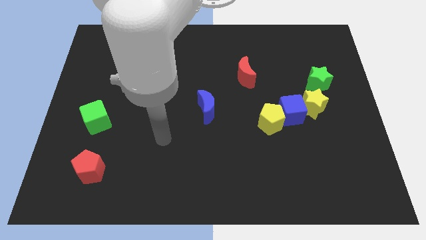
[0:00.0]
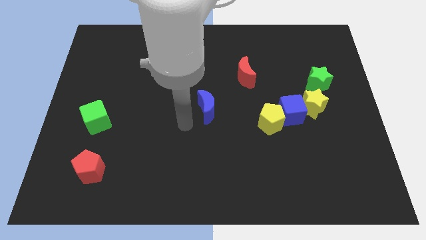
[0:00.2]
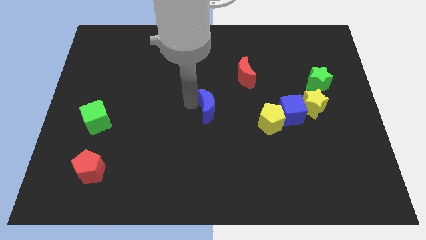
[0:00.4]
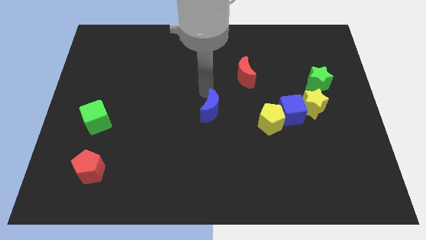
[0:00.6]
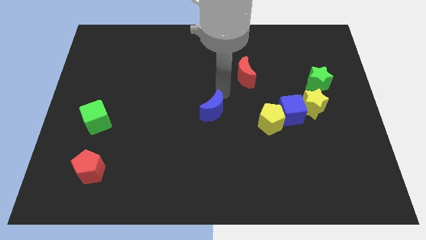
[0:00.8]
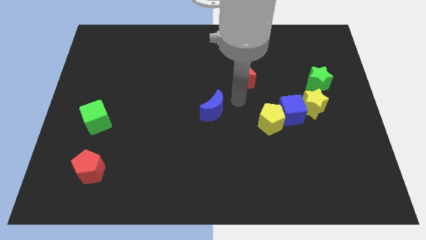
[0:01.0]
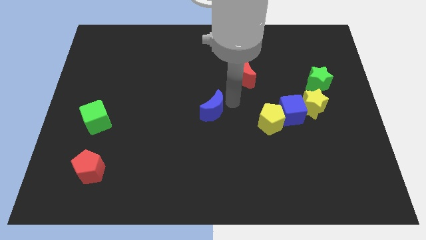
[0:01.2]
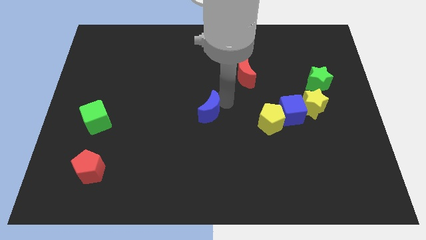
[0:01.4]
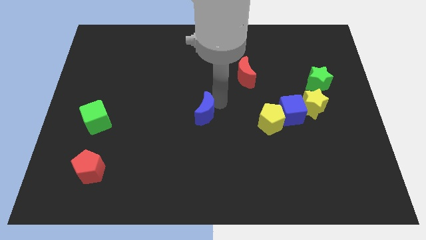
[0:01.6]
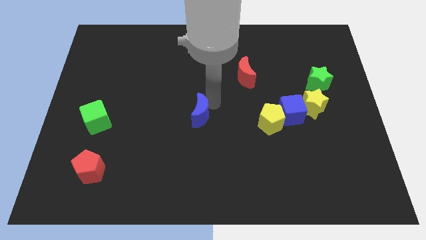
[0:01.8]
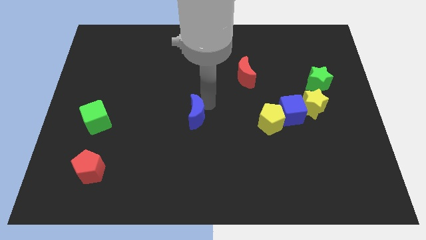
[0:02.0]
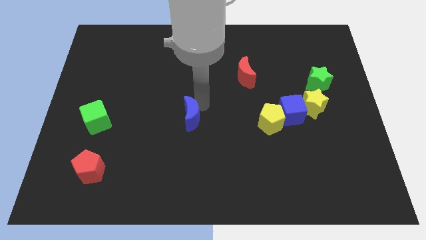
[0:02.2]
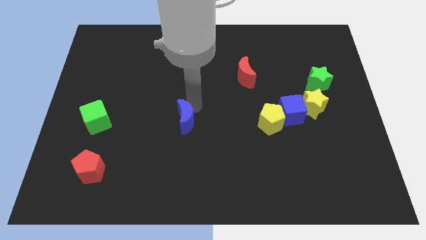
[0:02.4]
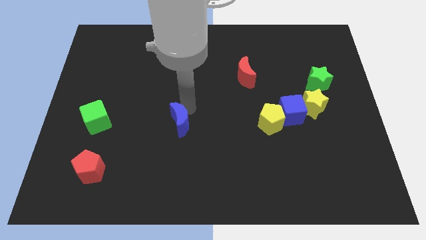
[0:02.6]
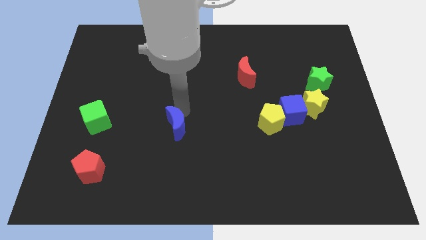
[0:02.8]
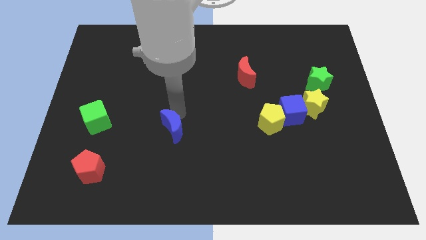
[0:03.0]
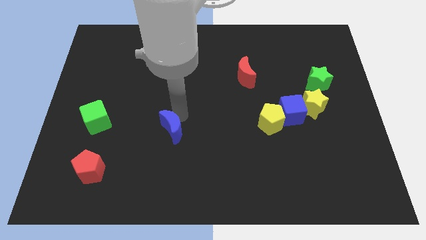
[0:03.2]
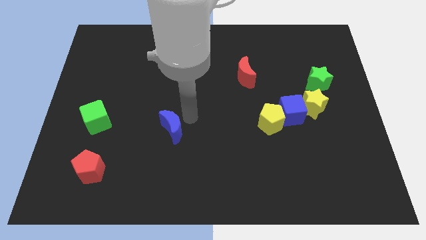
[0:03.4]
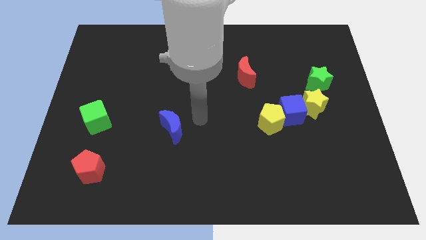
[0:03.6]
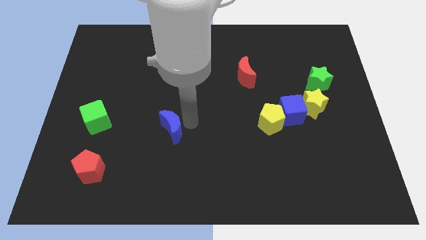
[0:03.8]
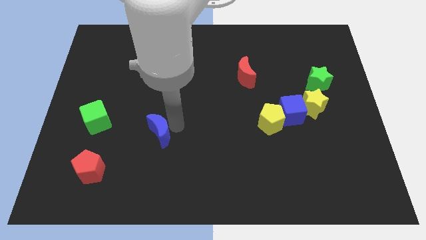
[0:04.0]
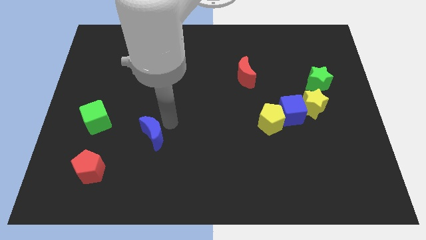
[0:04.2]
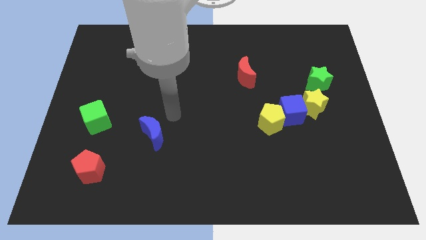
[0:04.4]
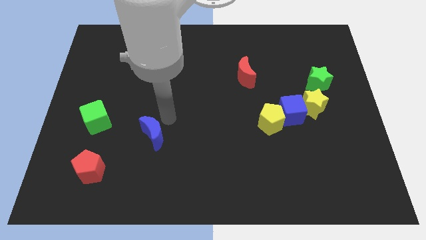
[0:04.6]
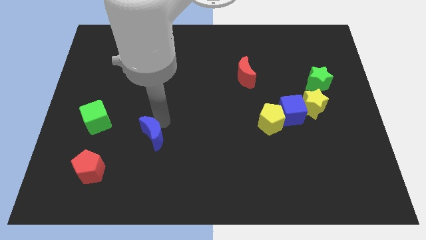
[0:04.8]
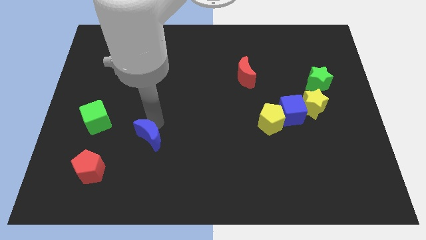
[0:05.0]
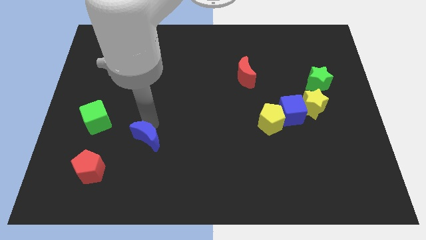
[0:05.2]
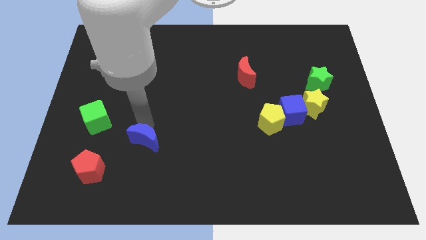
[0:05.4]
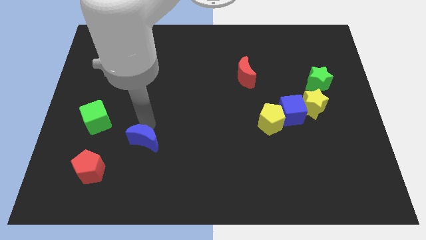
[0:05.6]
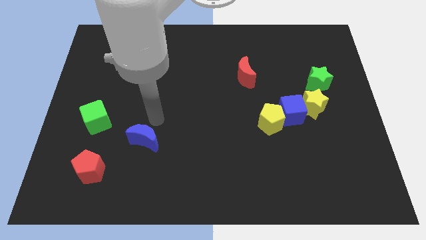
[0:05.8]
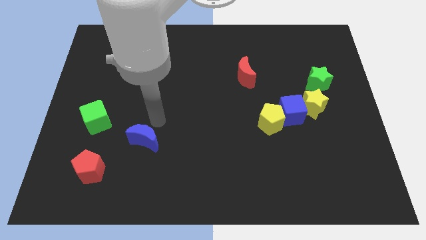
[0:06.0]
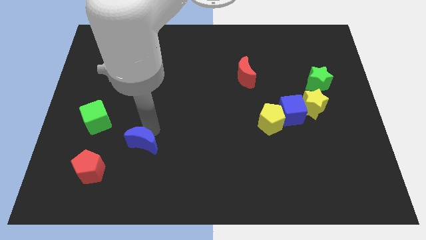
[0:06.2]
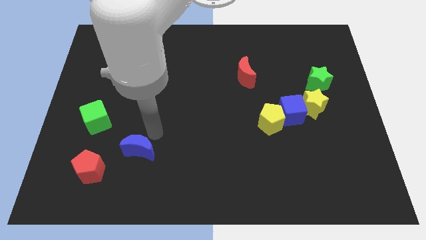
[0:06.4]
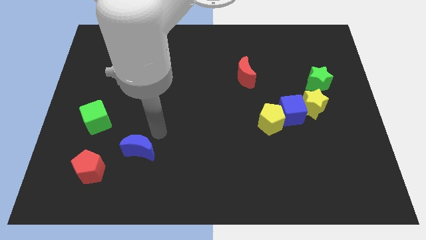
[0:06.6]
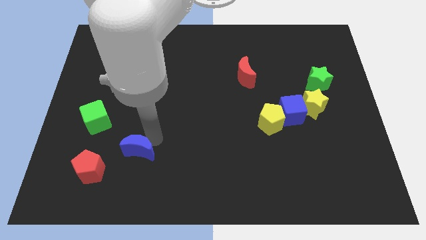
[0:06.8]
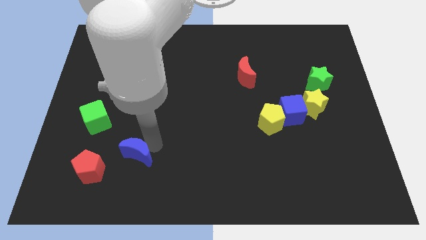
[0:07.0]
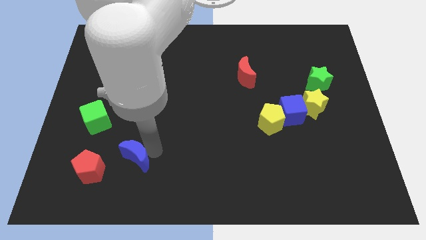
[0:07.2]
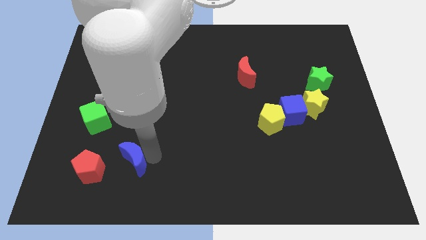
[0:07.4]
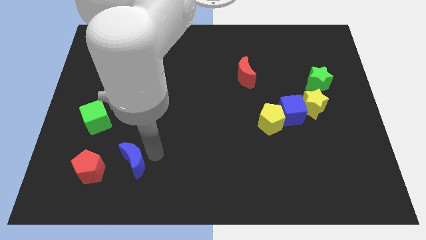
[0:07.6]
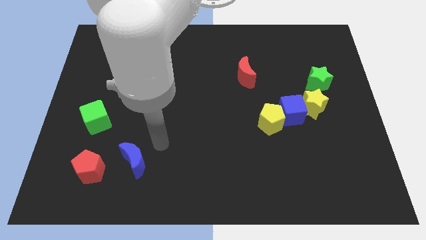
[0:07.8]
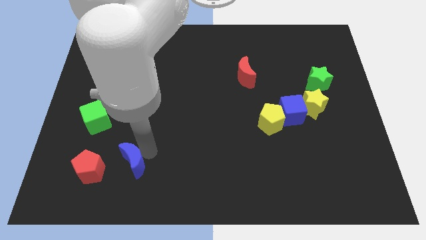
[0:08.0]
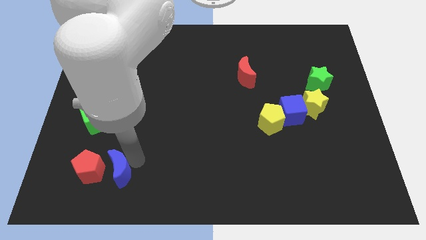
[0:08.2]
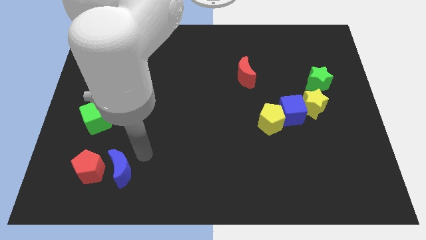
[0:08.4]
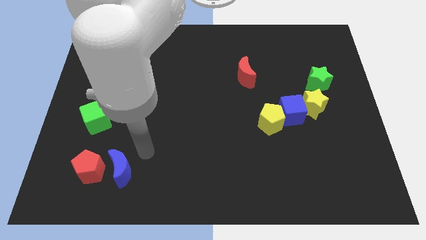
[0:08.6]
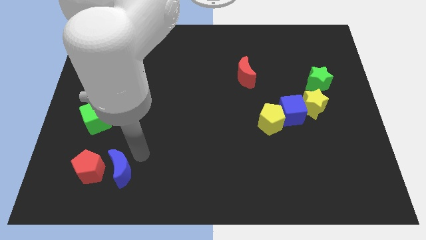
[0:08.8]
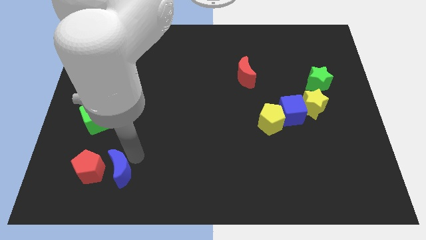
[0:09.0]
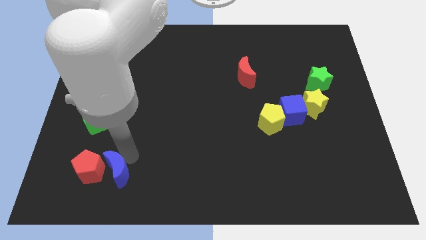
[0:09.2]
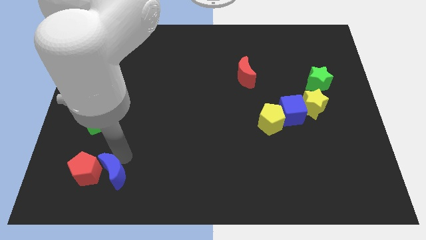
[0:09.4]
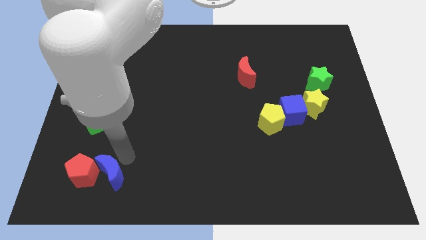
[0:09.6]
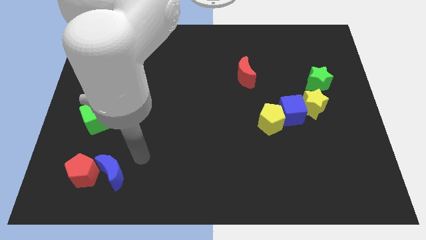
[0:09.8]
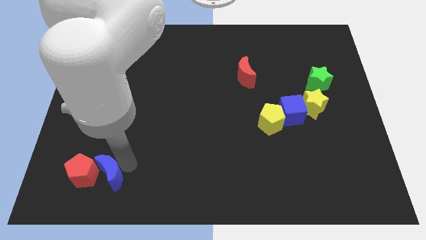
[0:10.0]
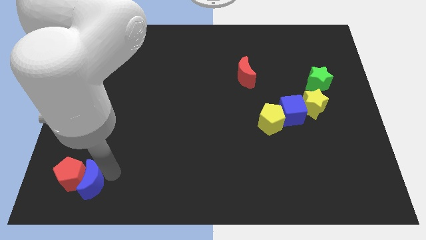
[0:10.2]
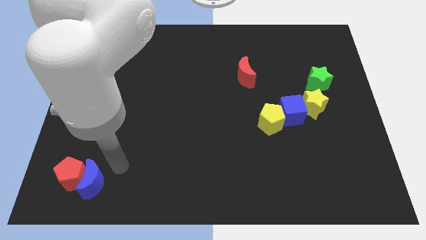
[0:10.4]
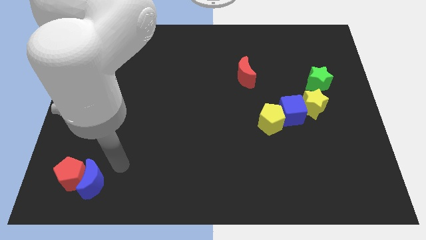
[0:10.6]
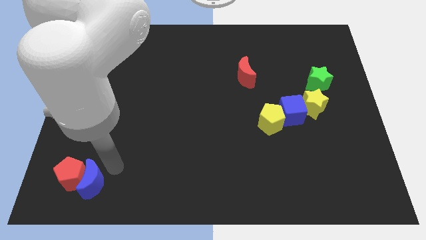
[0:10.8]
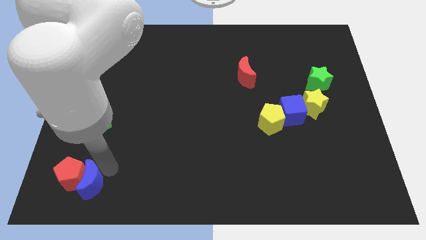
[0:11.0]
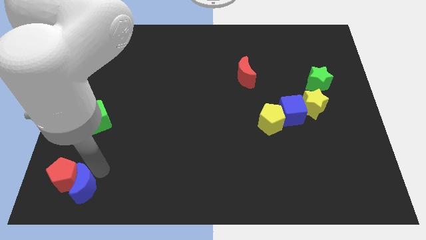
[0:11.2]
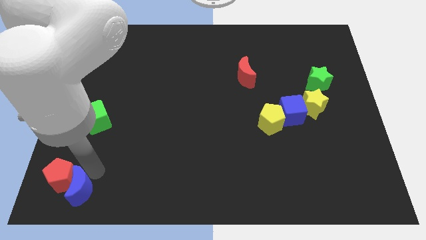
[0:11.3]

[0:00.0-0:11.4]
push the blue moon to the bottom left

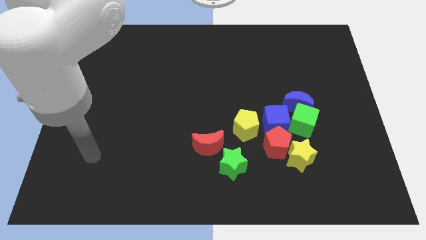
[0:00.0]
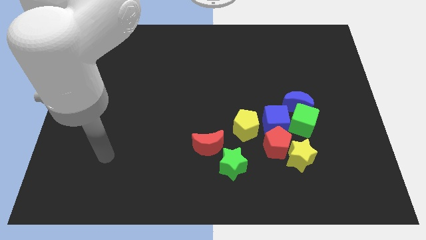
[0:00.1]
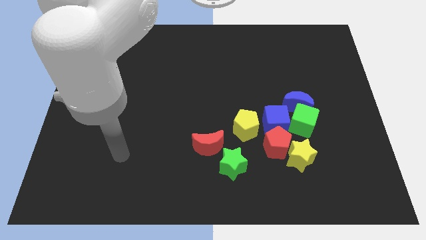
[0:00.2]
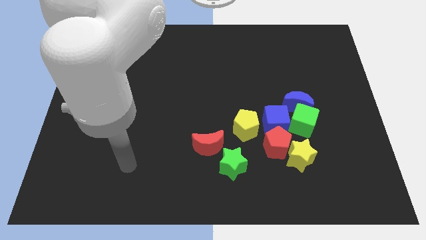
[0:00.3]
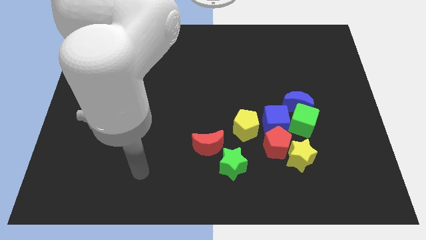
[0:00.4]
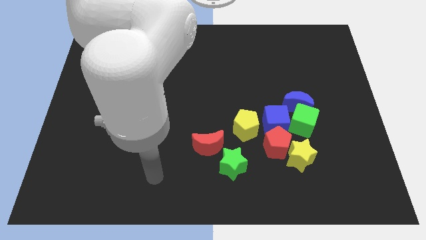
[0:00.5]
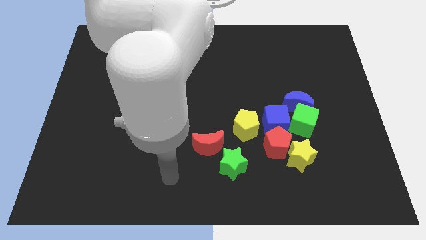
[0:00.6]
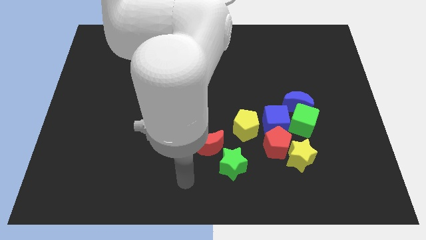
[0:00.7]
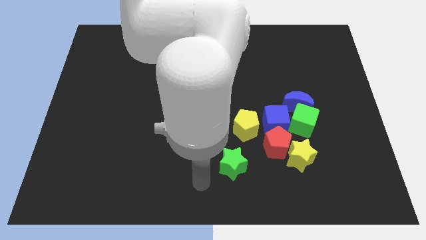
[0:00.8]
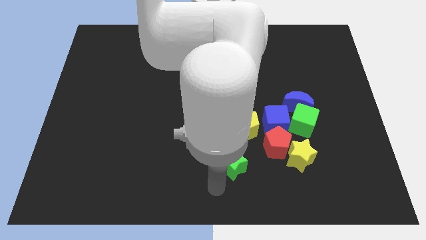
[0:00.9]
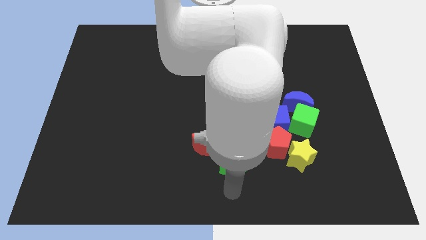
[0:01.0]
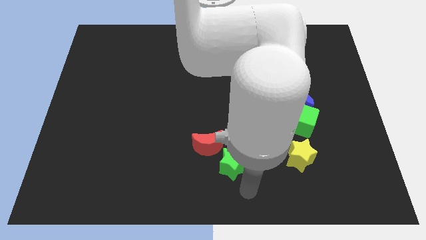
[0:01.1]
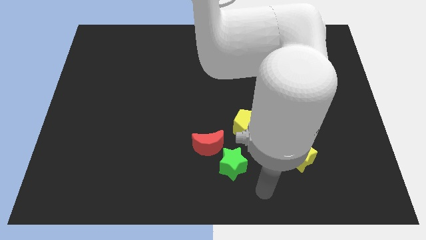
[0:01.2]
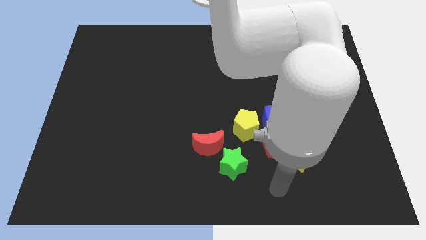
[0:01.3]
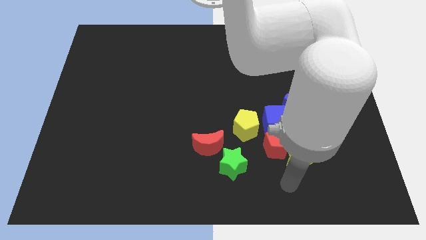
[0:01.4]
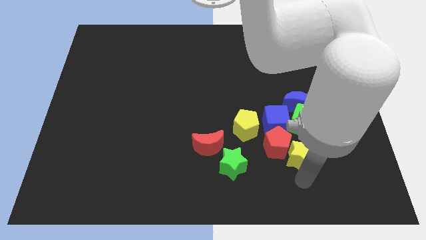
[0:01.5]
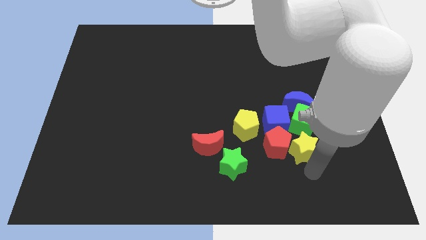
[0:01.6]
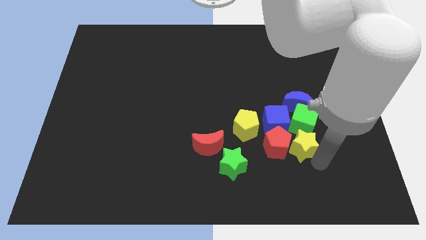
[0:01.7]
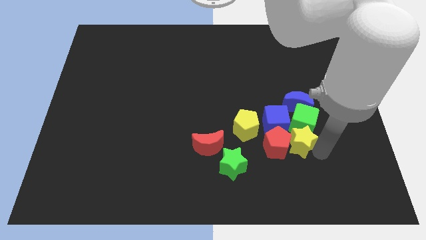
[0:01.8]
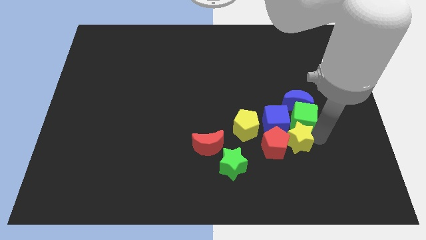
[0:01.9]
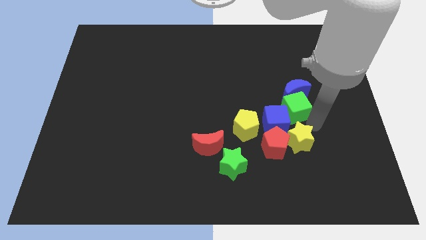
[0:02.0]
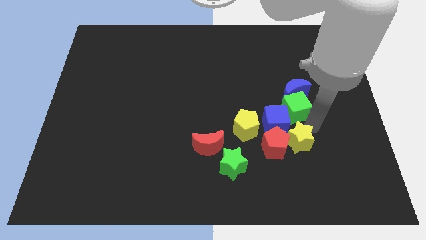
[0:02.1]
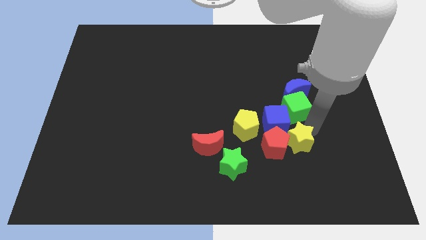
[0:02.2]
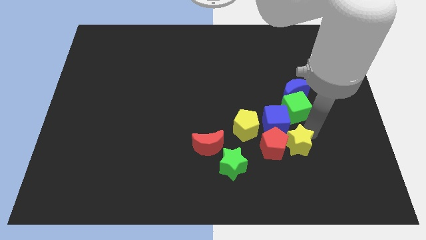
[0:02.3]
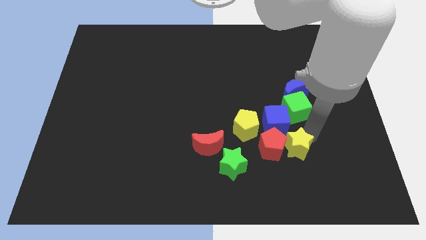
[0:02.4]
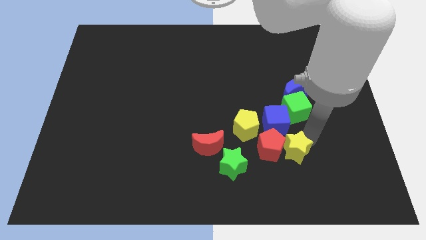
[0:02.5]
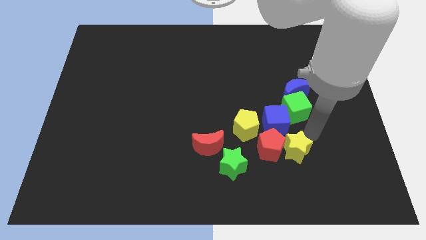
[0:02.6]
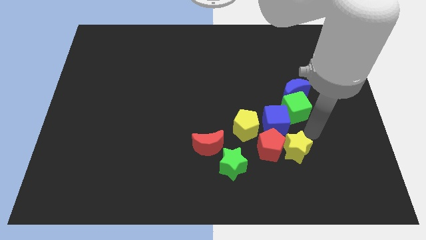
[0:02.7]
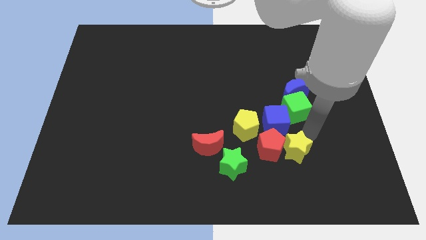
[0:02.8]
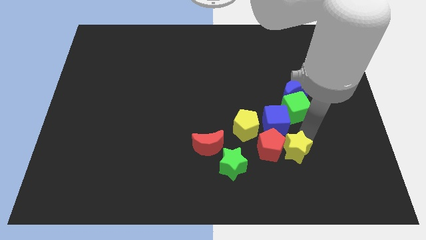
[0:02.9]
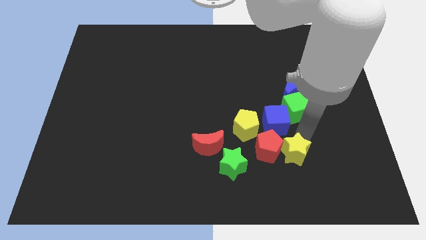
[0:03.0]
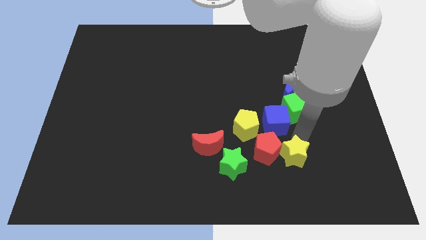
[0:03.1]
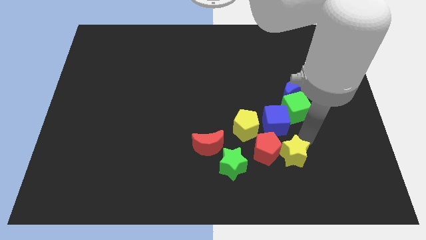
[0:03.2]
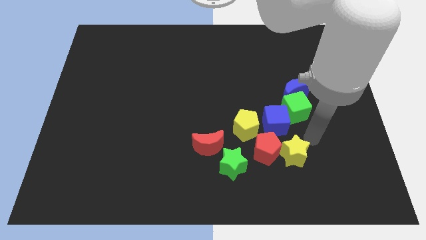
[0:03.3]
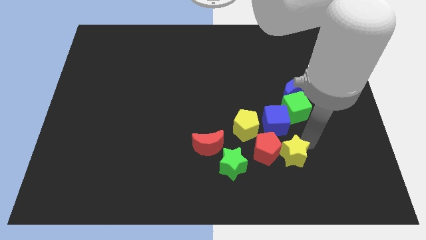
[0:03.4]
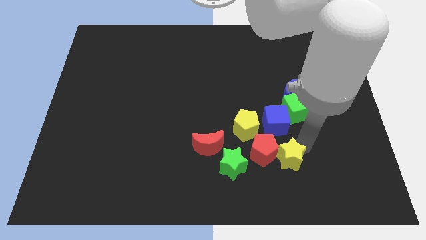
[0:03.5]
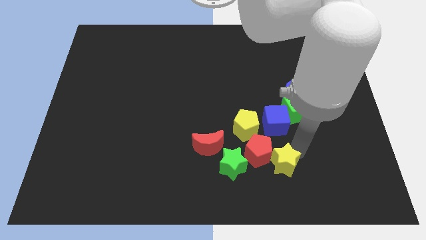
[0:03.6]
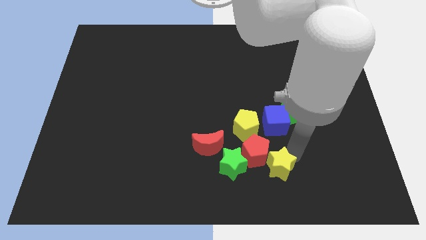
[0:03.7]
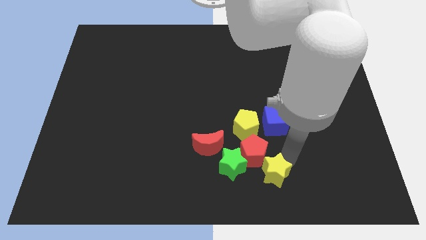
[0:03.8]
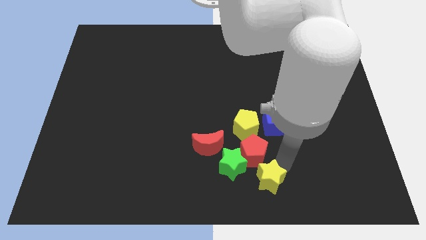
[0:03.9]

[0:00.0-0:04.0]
put the yellow star to the bottom side
